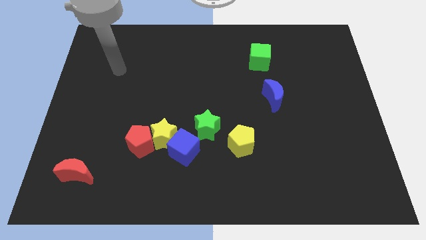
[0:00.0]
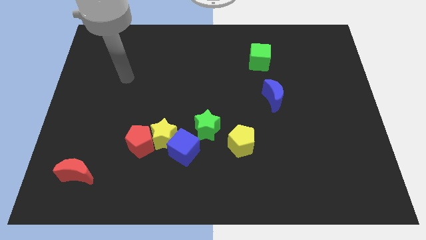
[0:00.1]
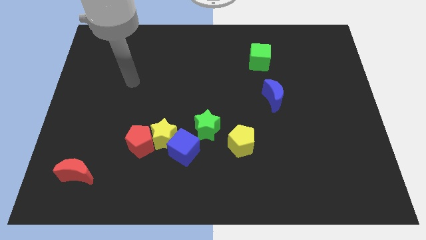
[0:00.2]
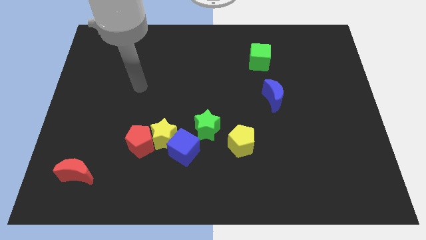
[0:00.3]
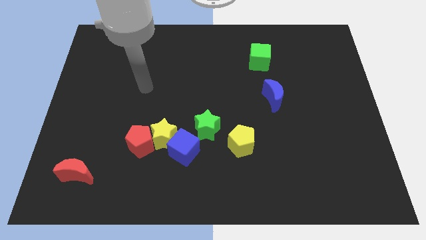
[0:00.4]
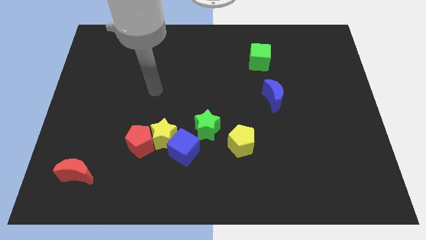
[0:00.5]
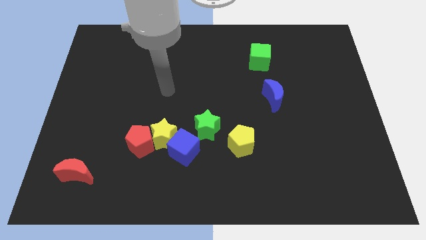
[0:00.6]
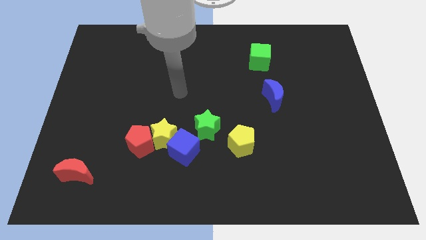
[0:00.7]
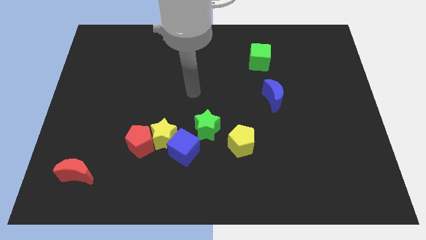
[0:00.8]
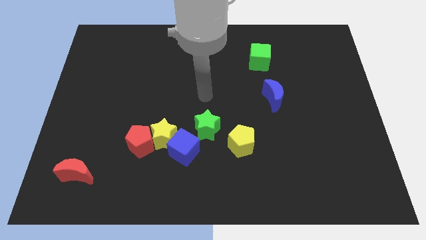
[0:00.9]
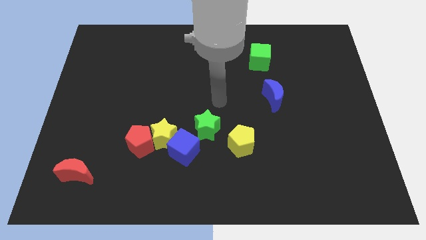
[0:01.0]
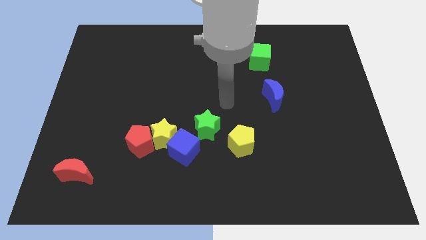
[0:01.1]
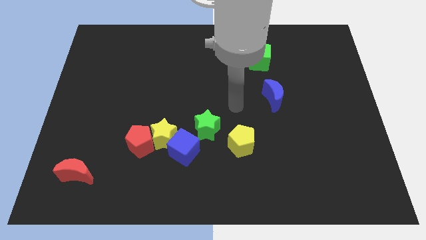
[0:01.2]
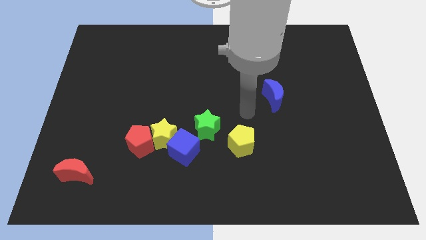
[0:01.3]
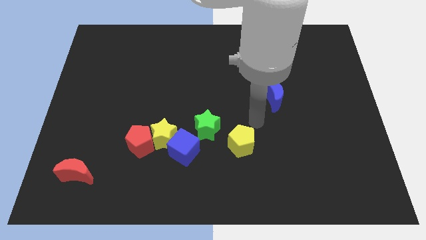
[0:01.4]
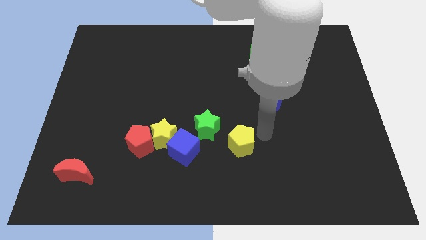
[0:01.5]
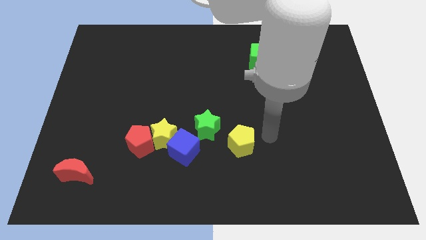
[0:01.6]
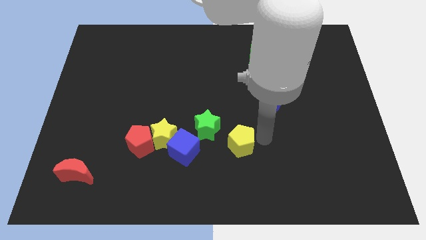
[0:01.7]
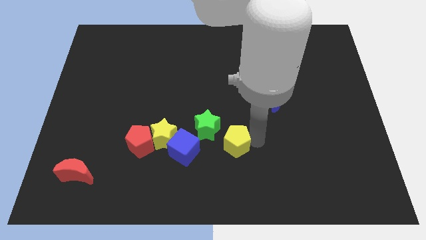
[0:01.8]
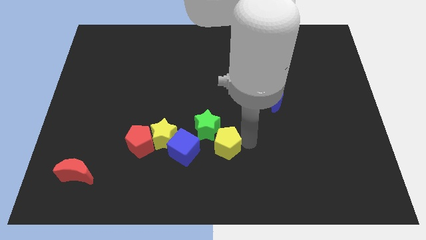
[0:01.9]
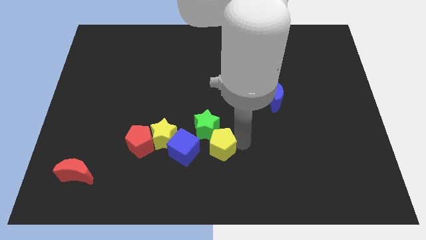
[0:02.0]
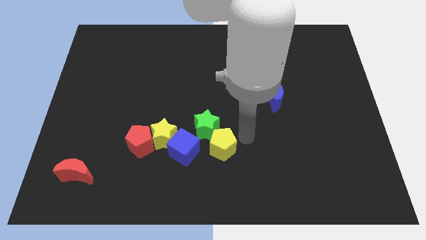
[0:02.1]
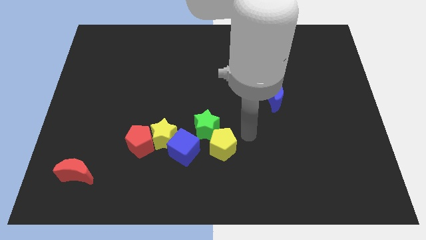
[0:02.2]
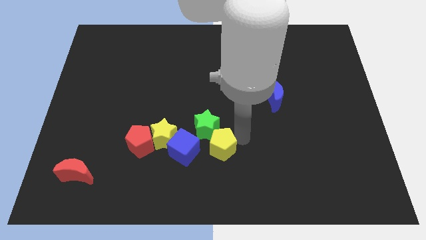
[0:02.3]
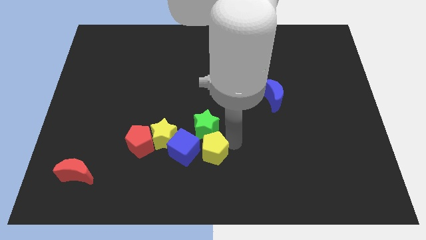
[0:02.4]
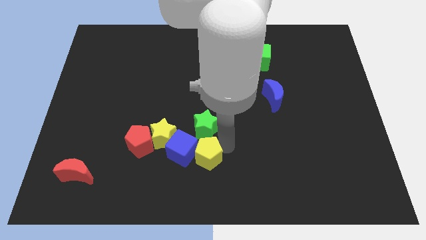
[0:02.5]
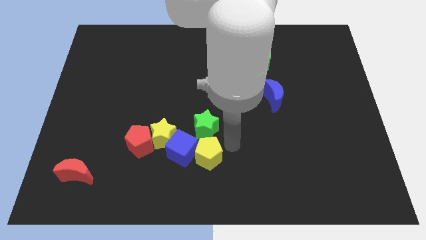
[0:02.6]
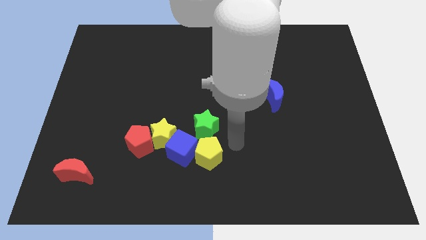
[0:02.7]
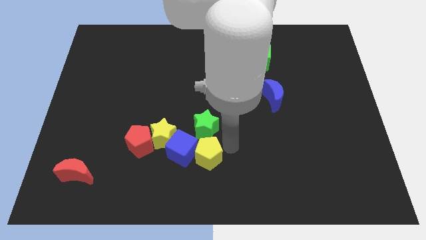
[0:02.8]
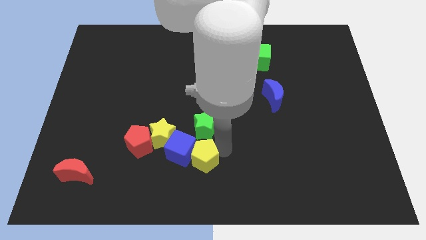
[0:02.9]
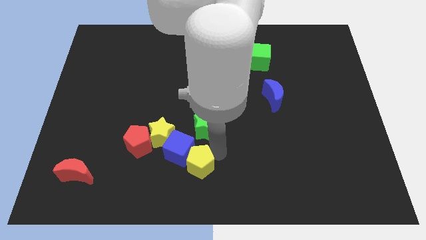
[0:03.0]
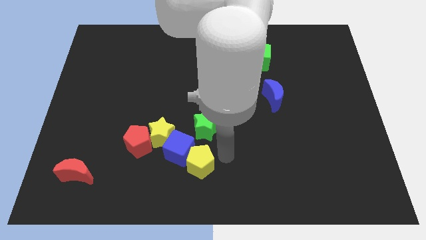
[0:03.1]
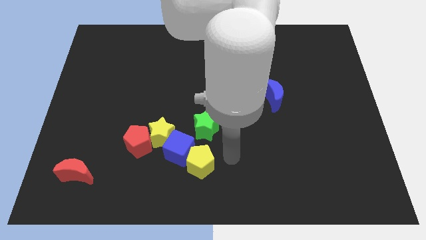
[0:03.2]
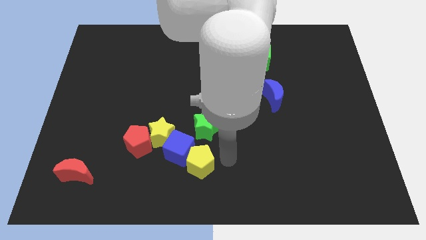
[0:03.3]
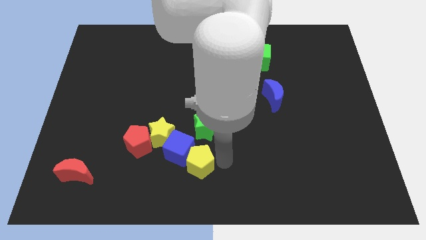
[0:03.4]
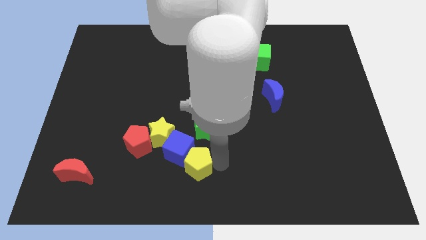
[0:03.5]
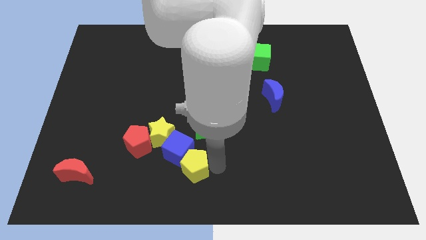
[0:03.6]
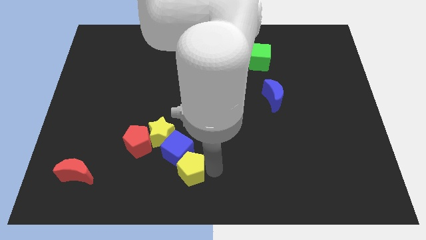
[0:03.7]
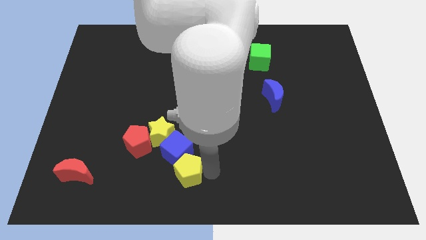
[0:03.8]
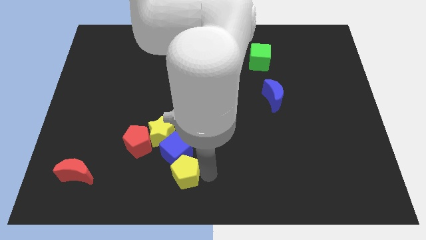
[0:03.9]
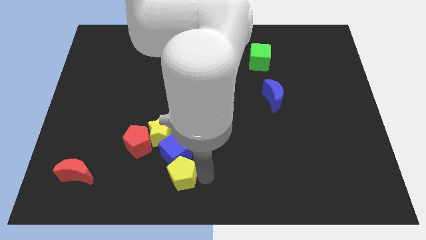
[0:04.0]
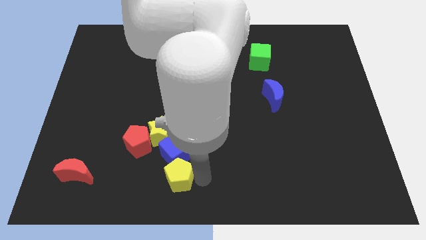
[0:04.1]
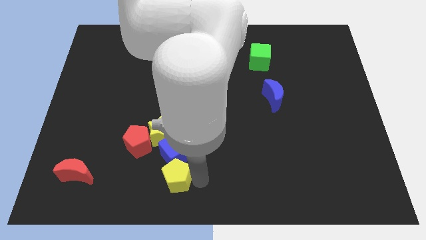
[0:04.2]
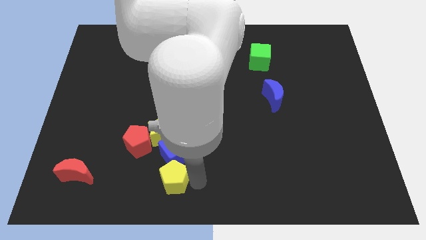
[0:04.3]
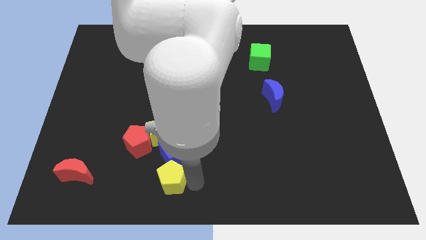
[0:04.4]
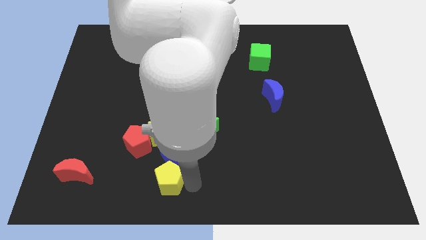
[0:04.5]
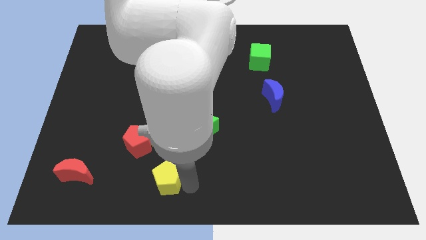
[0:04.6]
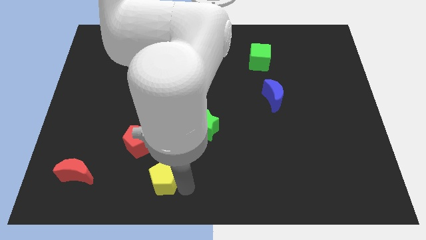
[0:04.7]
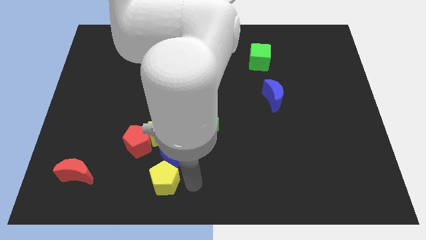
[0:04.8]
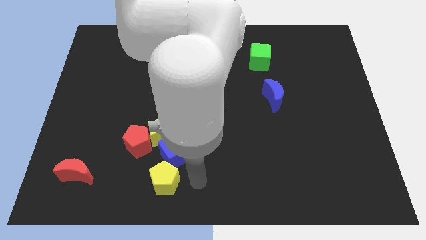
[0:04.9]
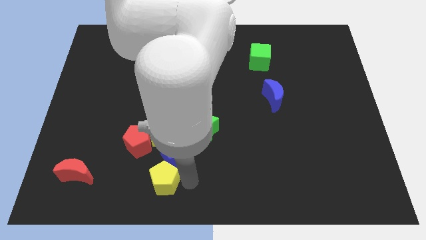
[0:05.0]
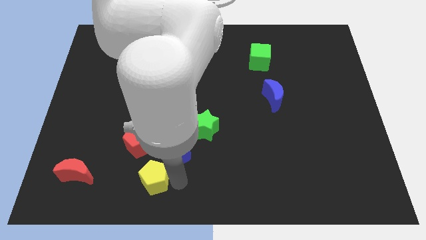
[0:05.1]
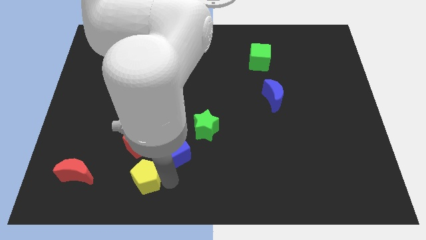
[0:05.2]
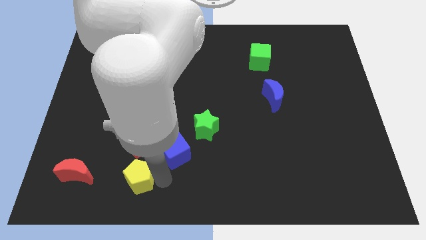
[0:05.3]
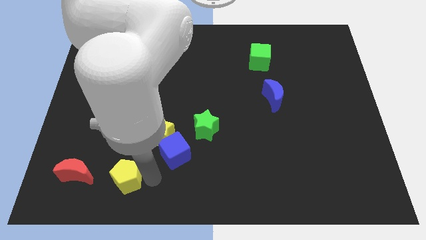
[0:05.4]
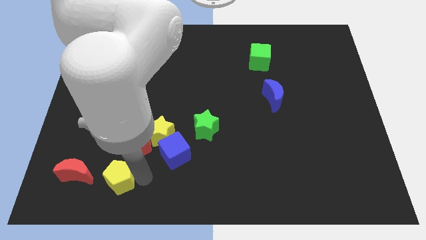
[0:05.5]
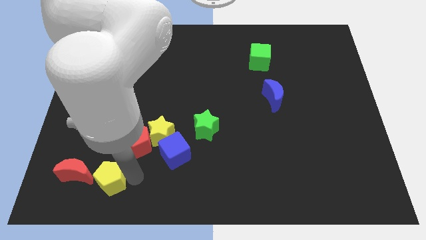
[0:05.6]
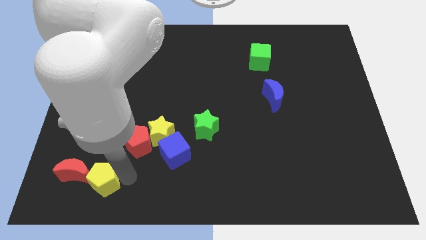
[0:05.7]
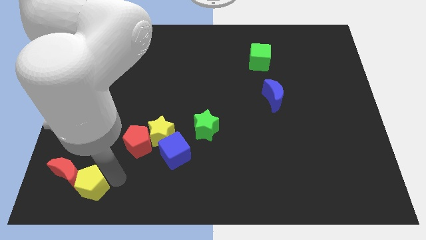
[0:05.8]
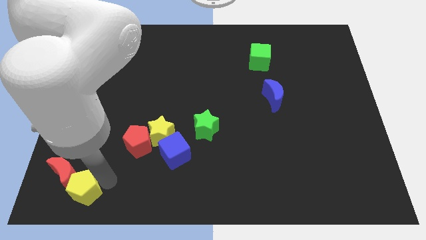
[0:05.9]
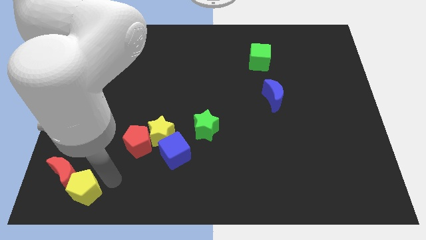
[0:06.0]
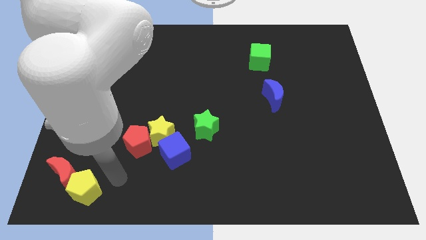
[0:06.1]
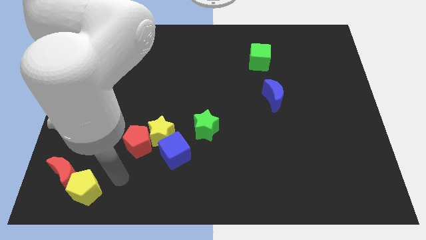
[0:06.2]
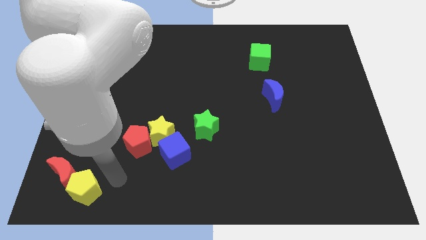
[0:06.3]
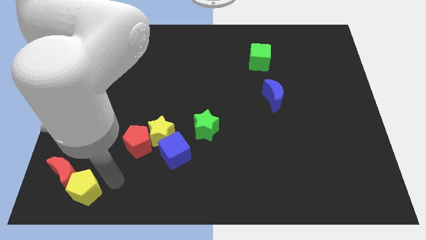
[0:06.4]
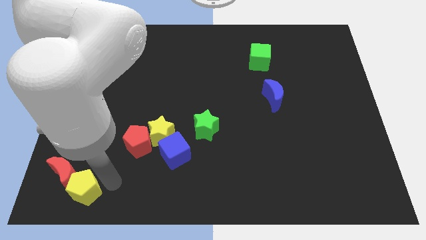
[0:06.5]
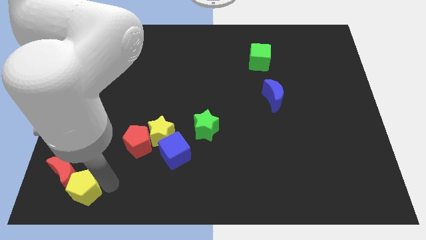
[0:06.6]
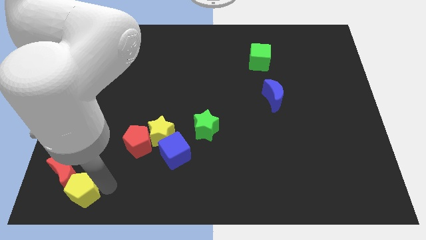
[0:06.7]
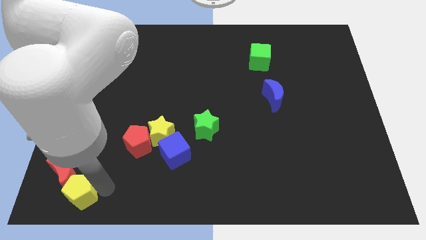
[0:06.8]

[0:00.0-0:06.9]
slide the yellow pentagon to the bottom left of the board
